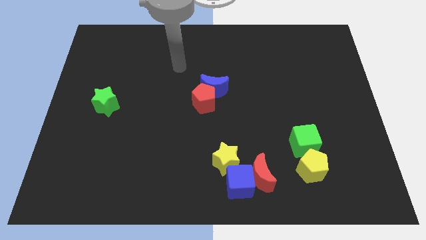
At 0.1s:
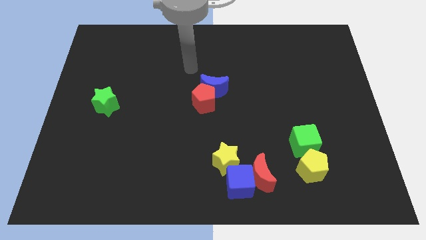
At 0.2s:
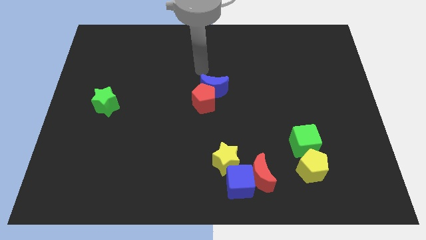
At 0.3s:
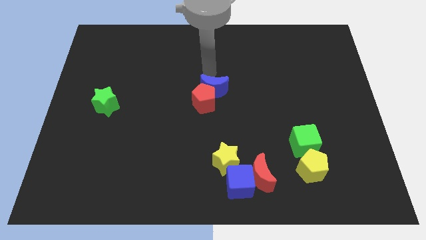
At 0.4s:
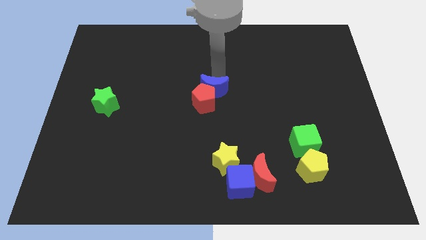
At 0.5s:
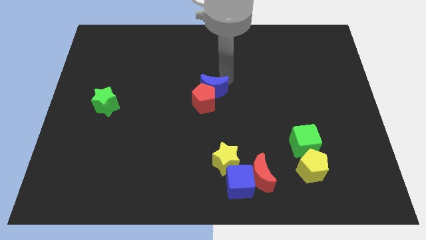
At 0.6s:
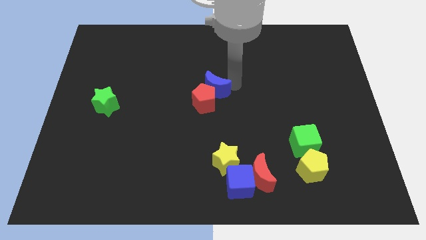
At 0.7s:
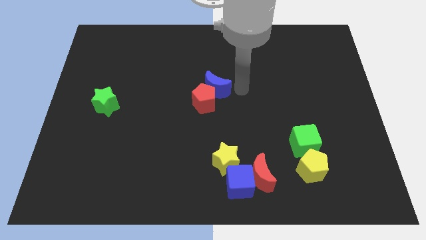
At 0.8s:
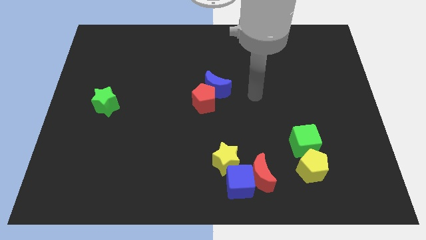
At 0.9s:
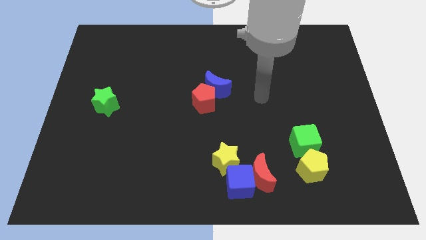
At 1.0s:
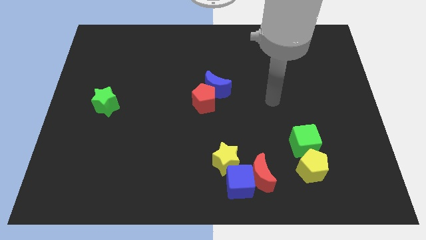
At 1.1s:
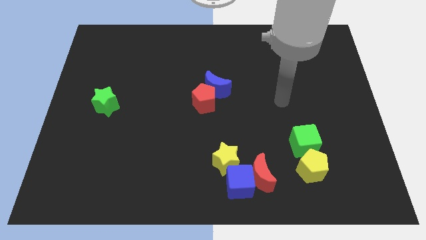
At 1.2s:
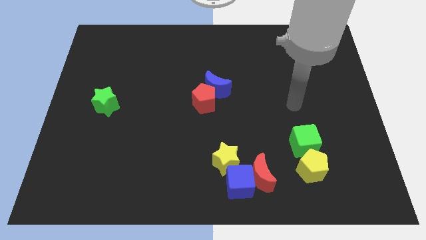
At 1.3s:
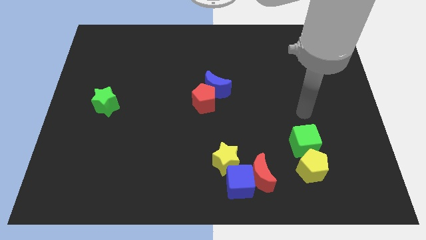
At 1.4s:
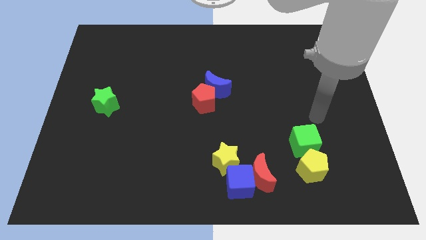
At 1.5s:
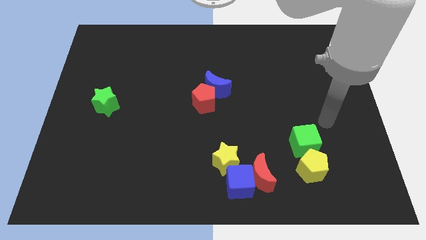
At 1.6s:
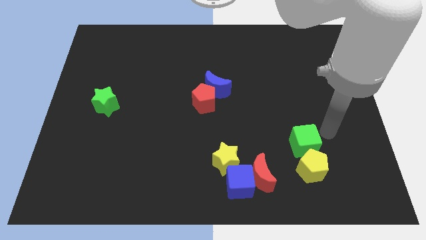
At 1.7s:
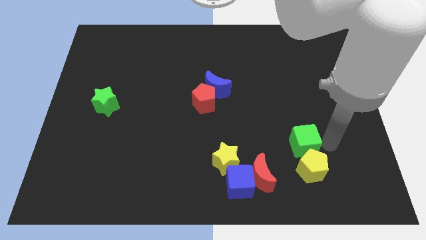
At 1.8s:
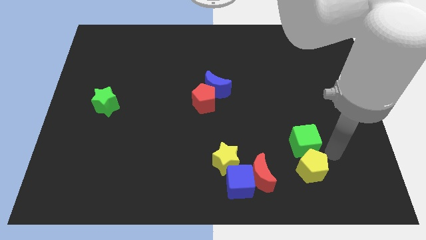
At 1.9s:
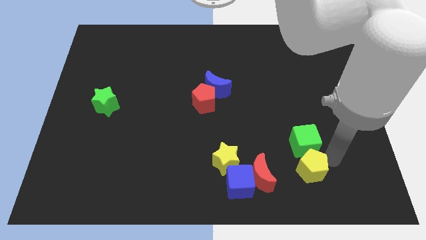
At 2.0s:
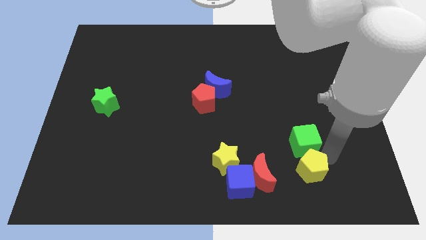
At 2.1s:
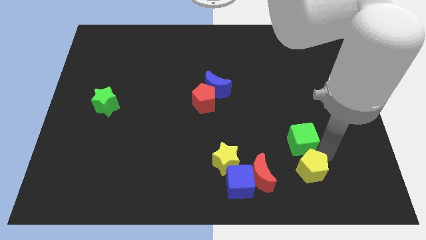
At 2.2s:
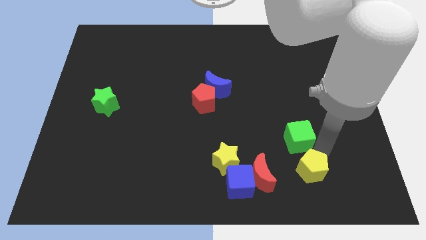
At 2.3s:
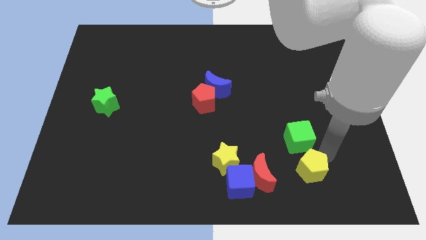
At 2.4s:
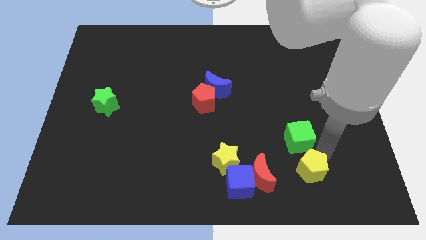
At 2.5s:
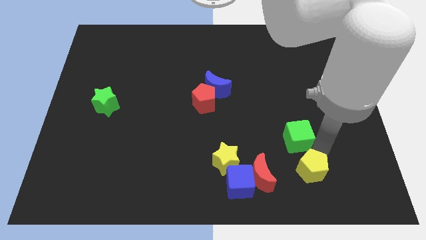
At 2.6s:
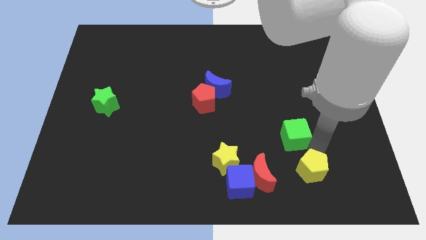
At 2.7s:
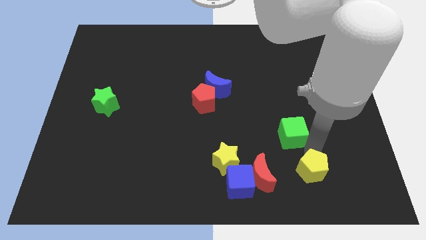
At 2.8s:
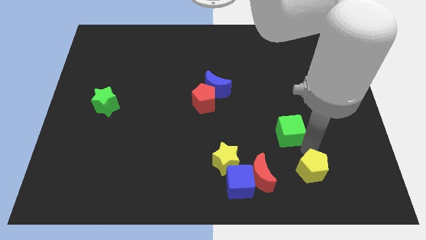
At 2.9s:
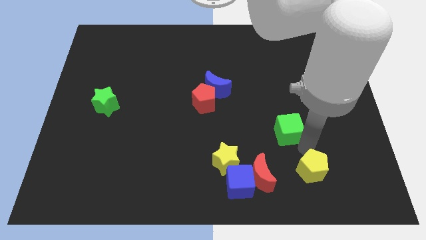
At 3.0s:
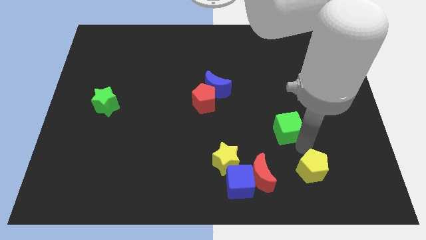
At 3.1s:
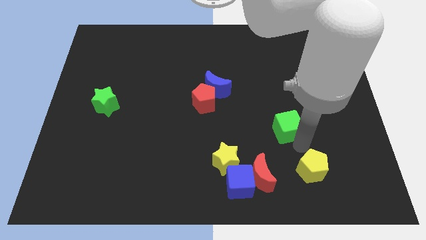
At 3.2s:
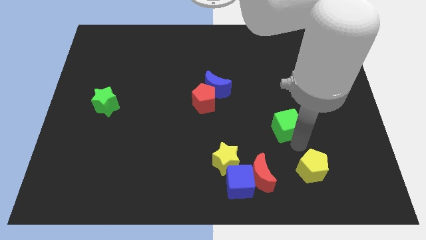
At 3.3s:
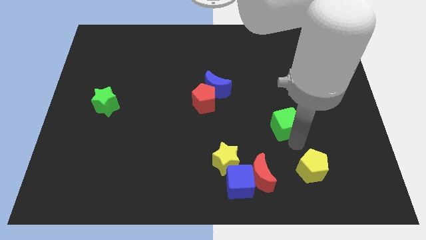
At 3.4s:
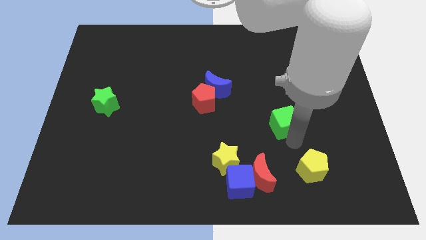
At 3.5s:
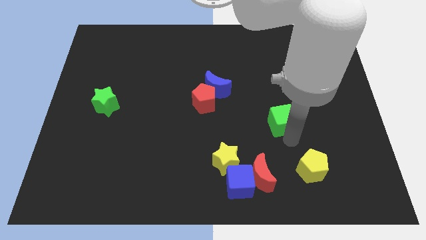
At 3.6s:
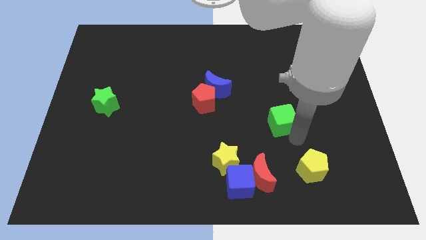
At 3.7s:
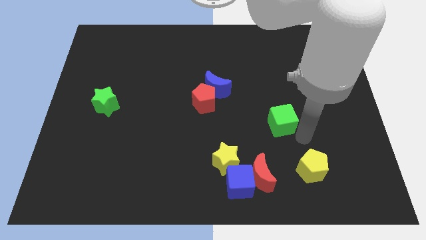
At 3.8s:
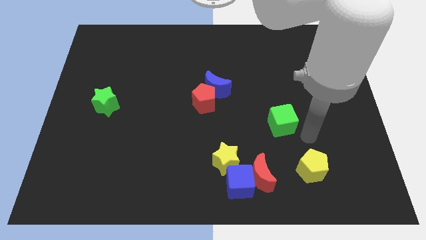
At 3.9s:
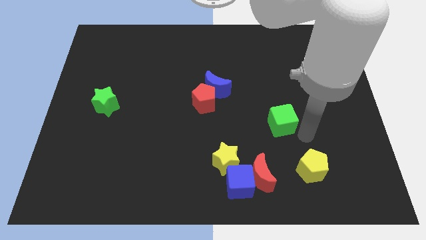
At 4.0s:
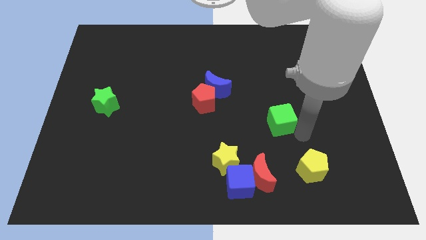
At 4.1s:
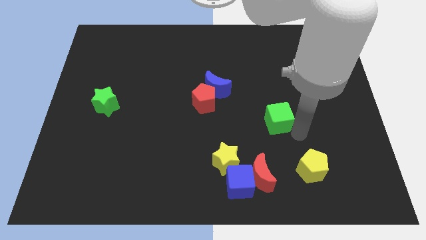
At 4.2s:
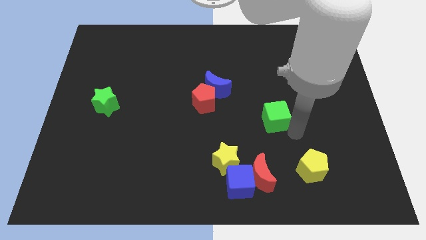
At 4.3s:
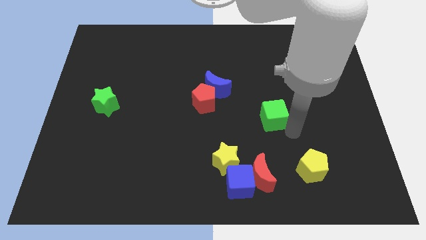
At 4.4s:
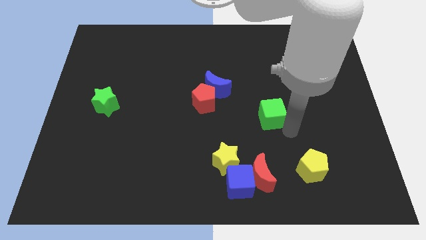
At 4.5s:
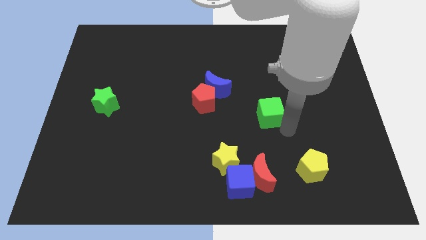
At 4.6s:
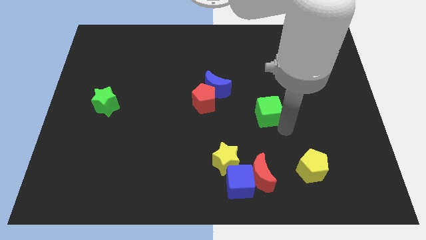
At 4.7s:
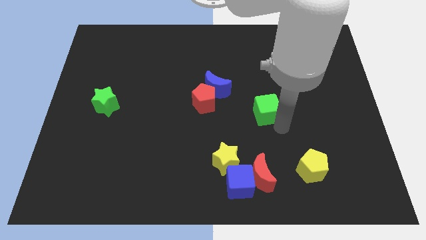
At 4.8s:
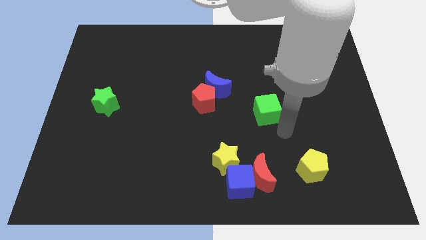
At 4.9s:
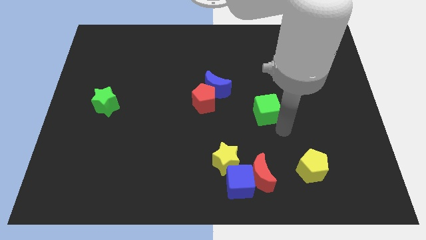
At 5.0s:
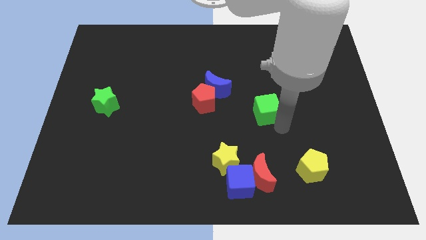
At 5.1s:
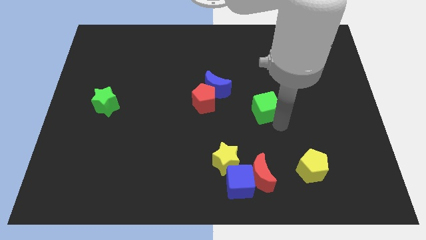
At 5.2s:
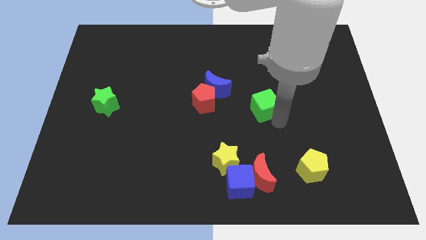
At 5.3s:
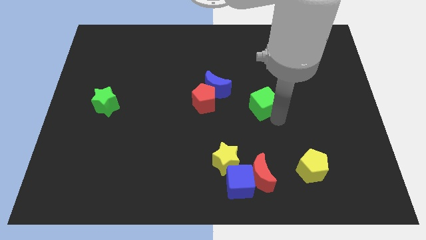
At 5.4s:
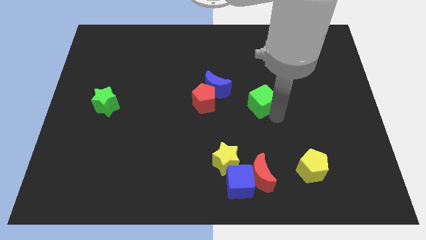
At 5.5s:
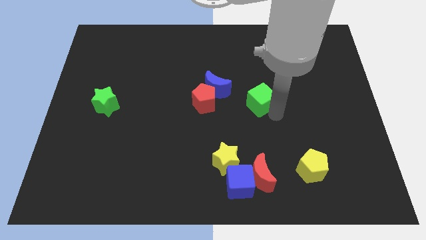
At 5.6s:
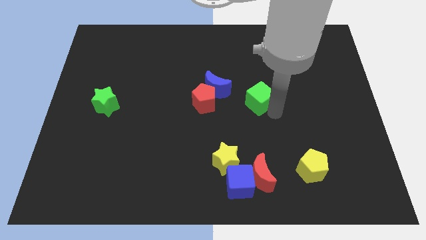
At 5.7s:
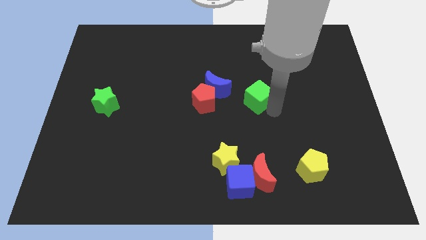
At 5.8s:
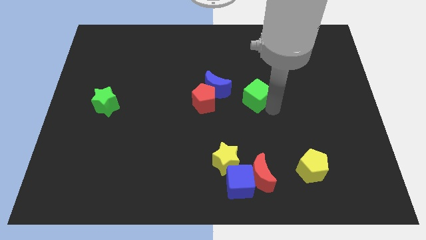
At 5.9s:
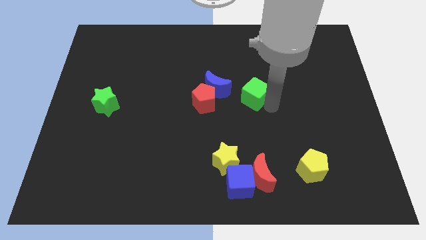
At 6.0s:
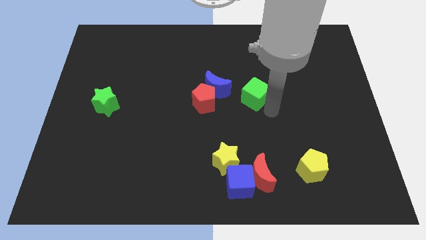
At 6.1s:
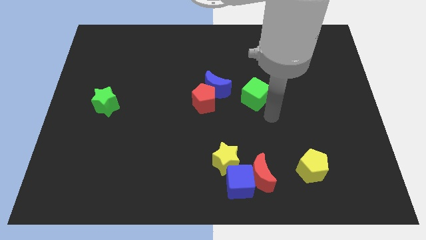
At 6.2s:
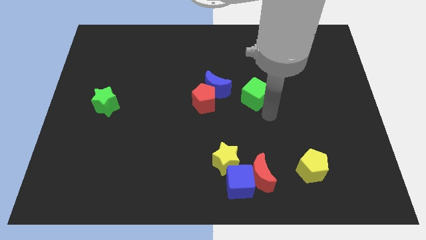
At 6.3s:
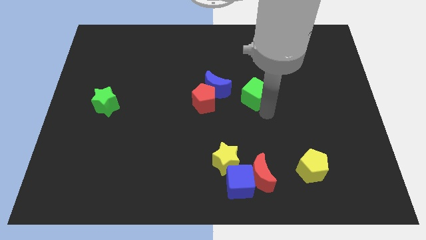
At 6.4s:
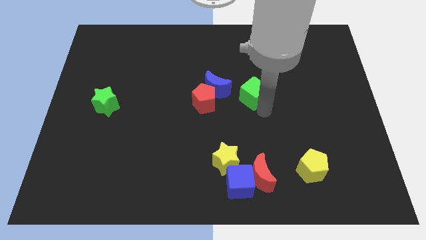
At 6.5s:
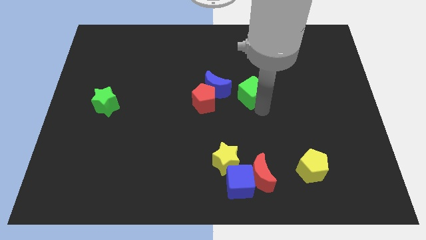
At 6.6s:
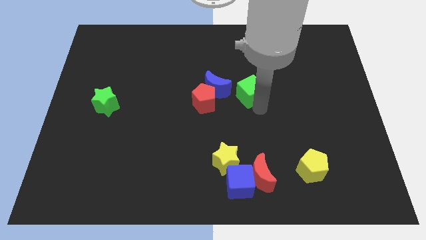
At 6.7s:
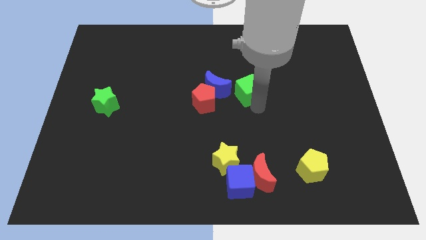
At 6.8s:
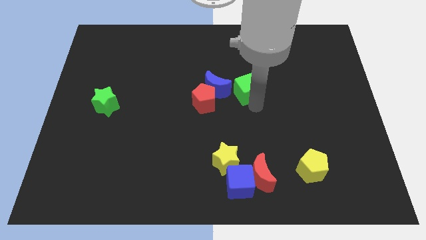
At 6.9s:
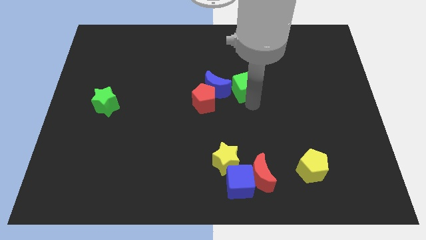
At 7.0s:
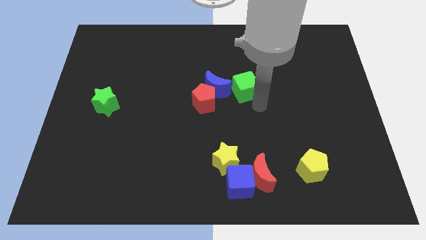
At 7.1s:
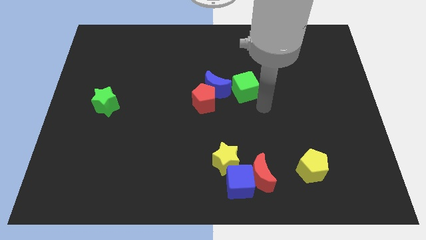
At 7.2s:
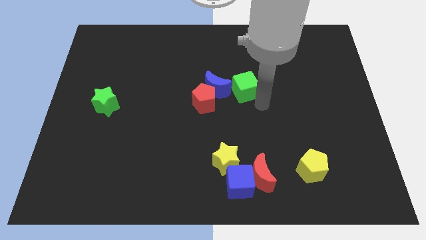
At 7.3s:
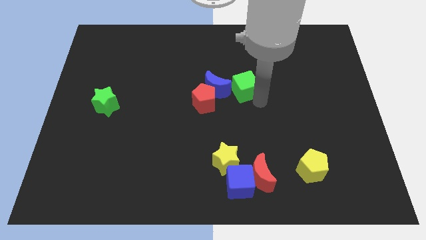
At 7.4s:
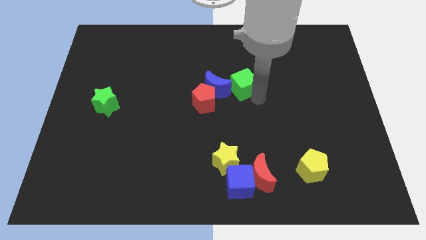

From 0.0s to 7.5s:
push the green cube diagonally upwards and to the left

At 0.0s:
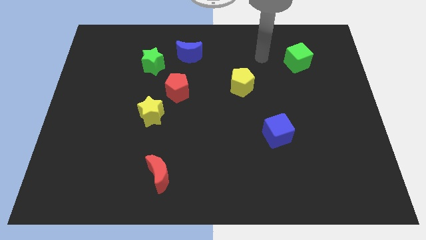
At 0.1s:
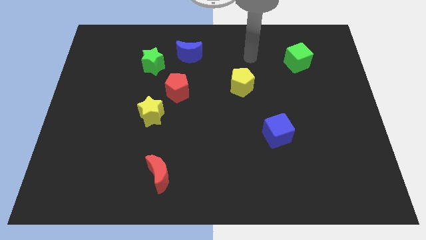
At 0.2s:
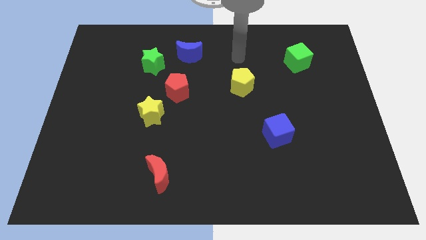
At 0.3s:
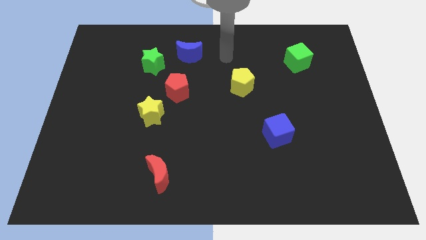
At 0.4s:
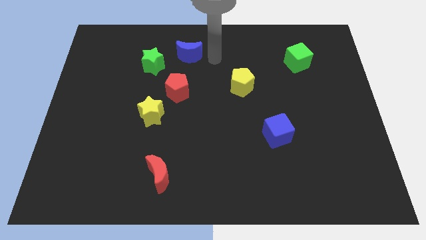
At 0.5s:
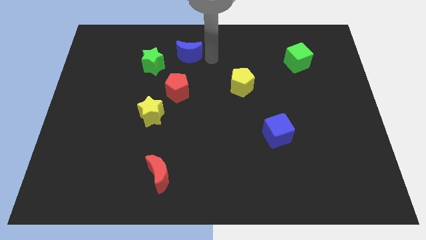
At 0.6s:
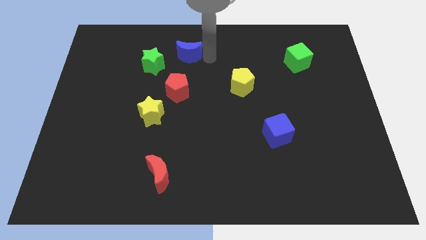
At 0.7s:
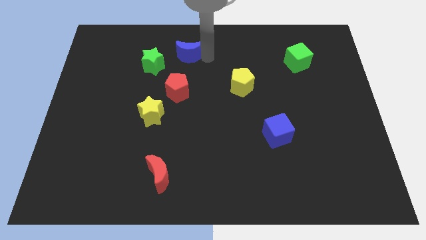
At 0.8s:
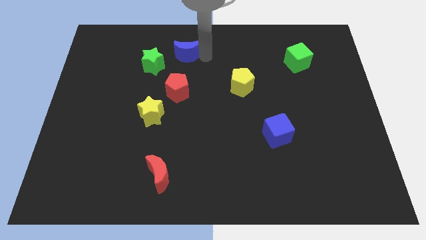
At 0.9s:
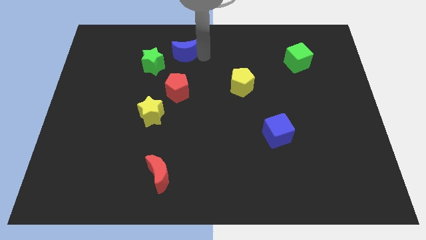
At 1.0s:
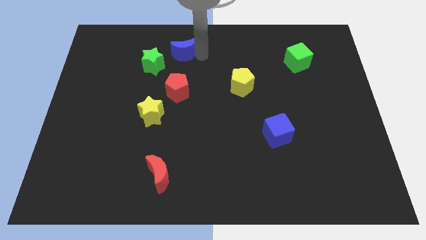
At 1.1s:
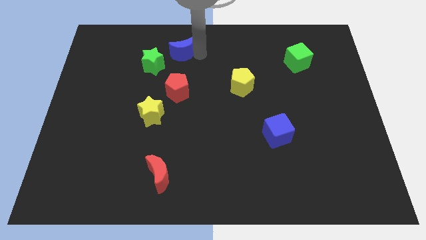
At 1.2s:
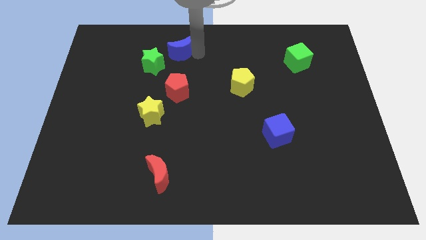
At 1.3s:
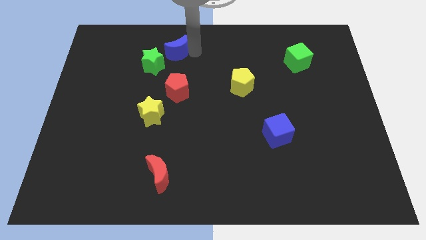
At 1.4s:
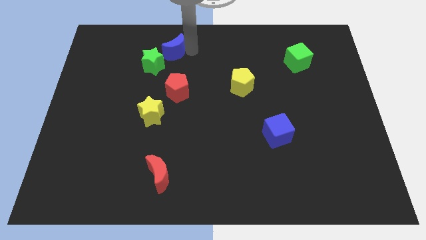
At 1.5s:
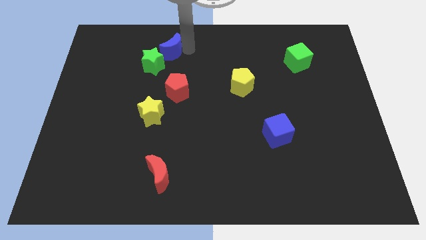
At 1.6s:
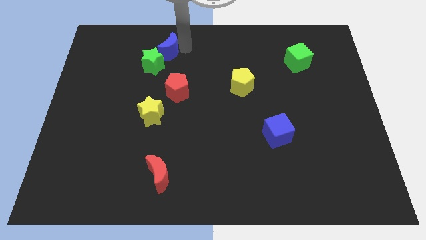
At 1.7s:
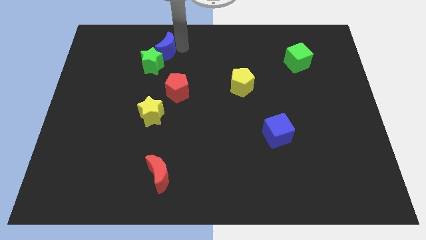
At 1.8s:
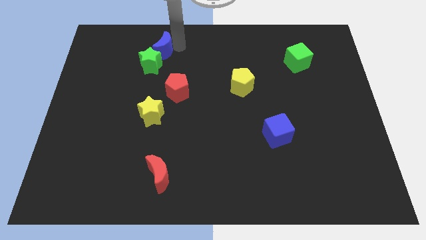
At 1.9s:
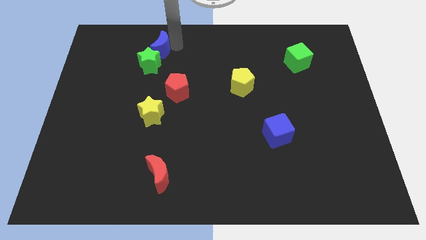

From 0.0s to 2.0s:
slightly push the blue moon left
